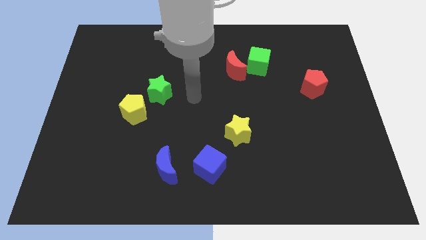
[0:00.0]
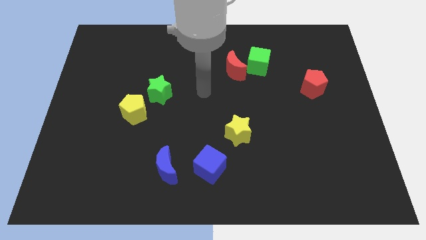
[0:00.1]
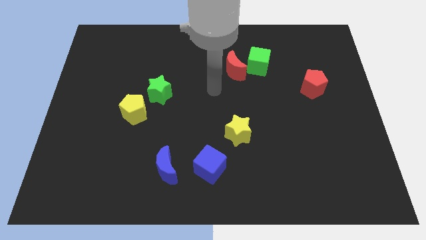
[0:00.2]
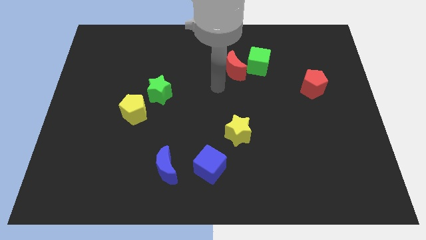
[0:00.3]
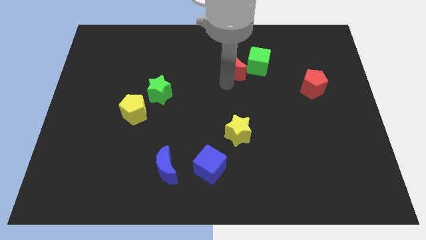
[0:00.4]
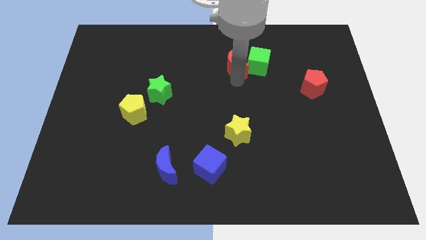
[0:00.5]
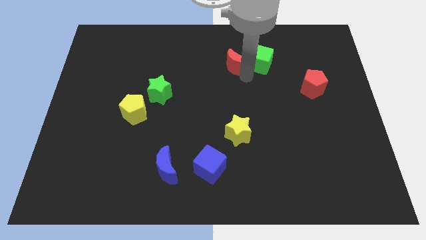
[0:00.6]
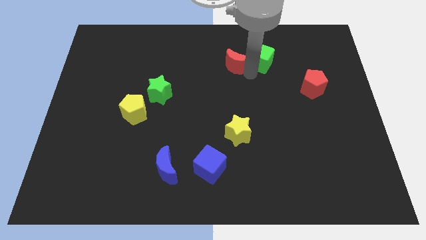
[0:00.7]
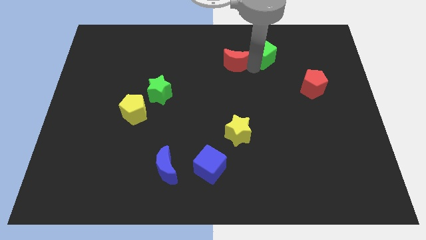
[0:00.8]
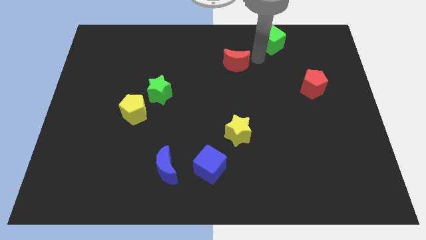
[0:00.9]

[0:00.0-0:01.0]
separate the red moon from the green cube

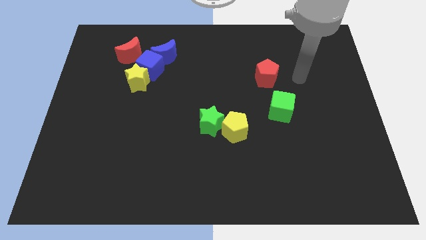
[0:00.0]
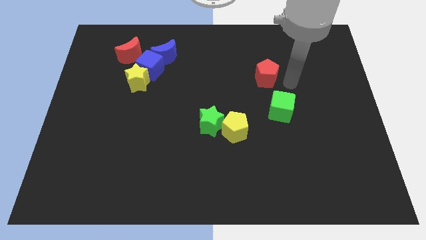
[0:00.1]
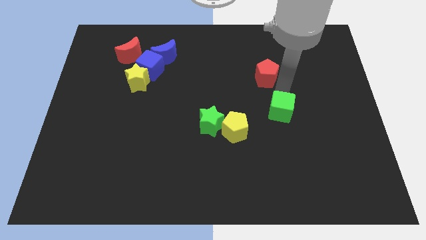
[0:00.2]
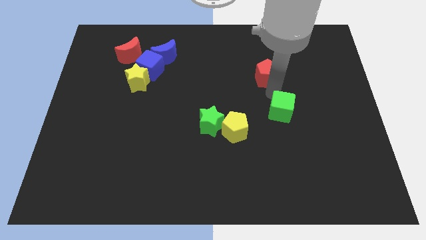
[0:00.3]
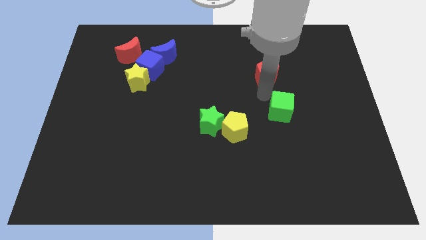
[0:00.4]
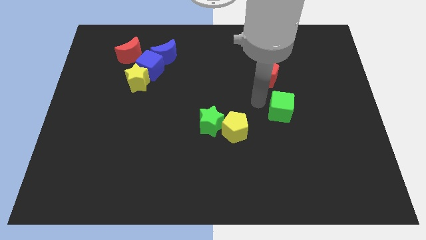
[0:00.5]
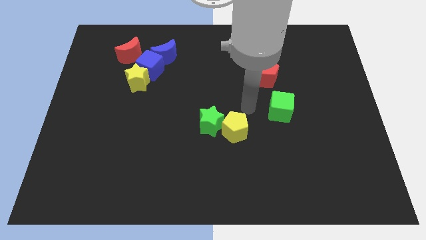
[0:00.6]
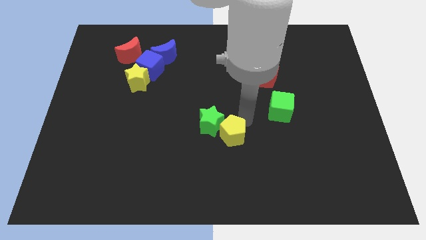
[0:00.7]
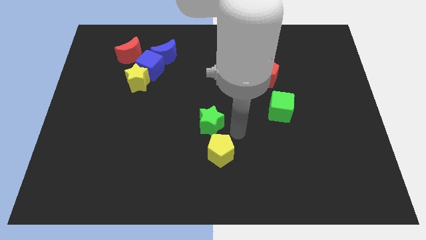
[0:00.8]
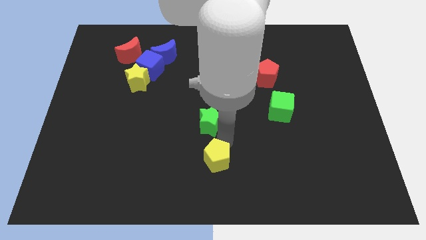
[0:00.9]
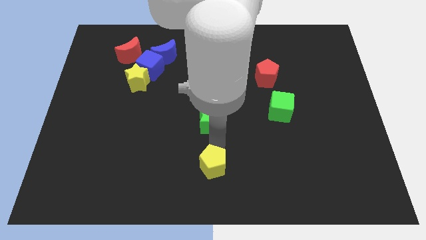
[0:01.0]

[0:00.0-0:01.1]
separate the green star from the yellow pentagon

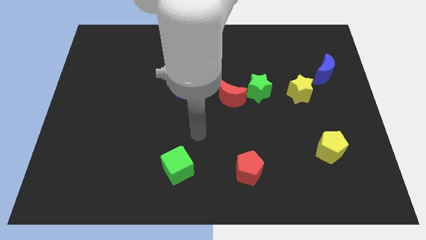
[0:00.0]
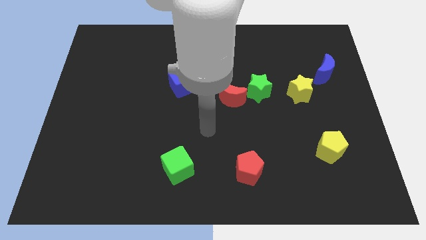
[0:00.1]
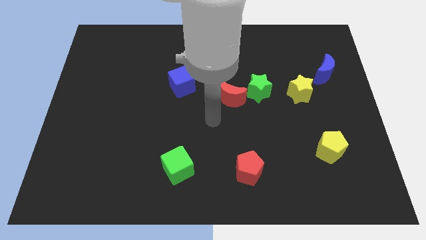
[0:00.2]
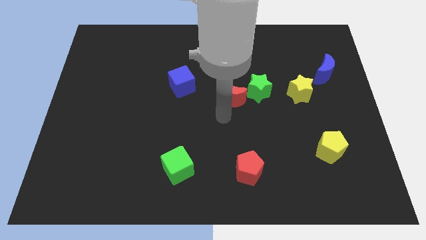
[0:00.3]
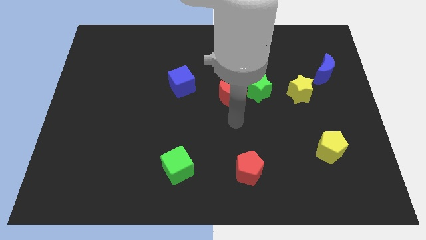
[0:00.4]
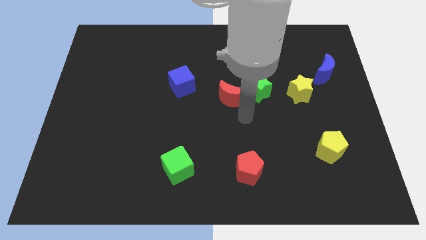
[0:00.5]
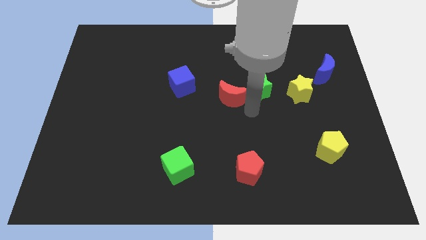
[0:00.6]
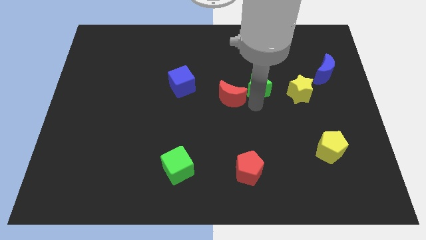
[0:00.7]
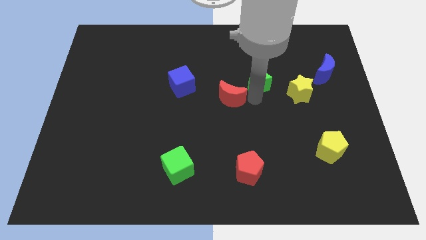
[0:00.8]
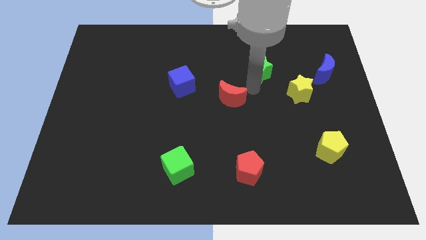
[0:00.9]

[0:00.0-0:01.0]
move the red moon away from the green star

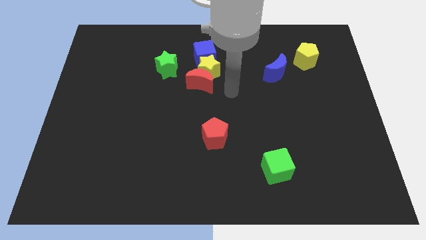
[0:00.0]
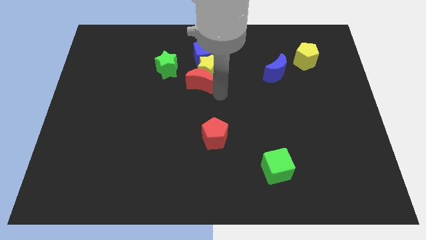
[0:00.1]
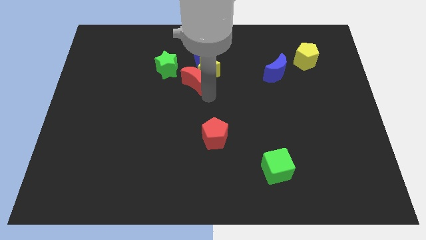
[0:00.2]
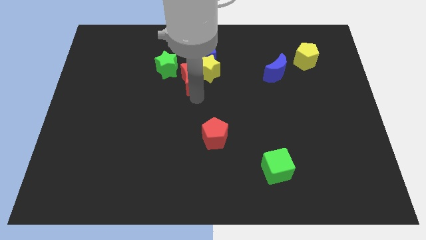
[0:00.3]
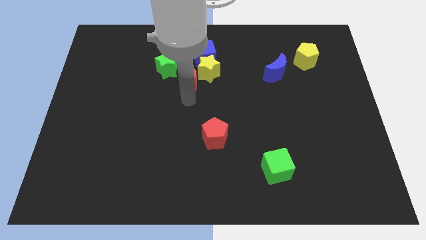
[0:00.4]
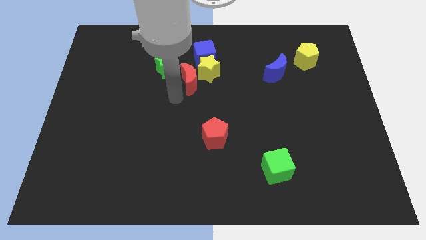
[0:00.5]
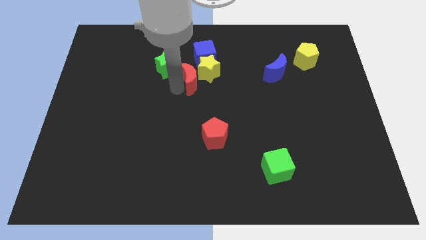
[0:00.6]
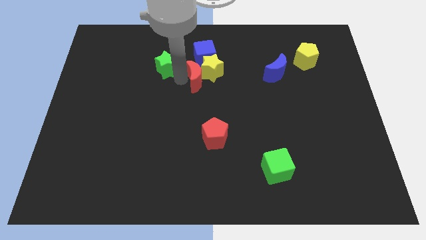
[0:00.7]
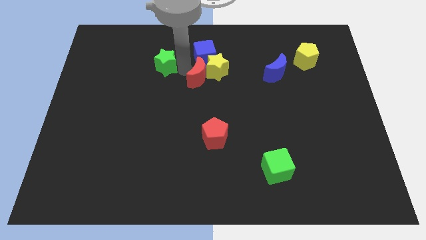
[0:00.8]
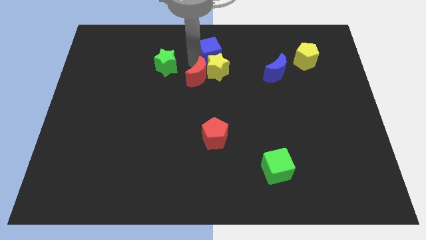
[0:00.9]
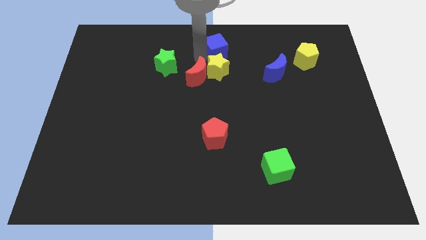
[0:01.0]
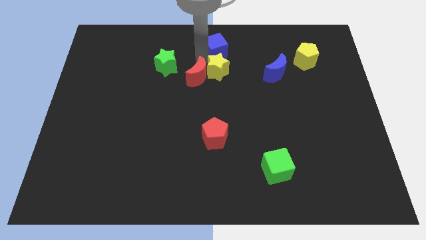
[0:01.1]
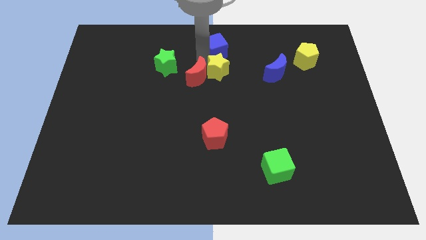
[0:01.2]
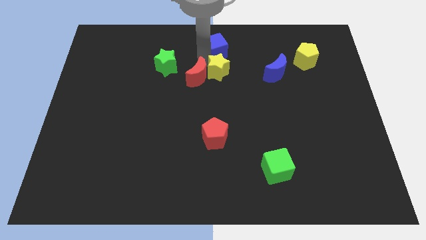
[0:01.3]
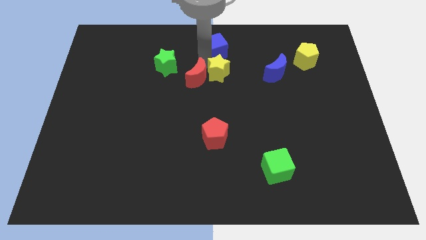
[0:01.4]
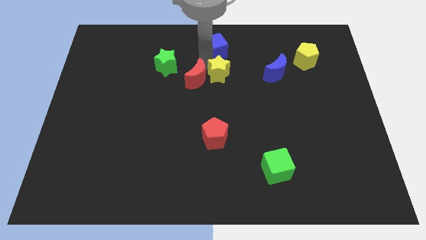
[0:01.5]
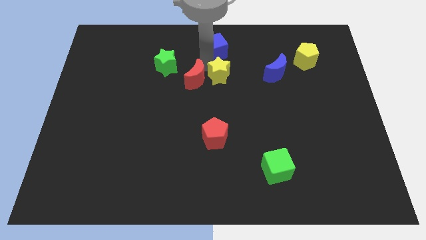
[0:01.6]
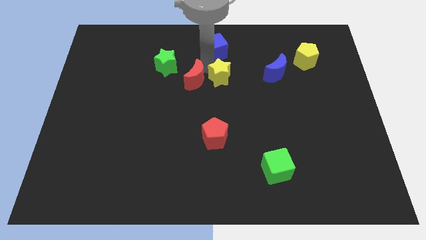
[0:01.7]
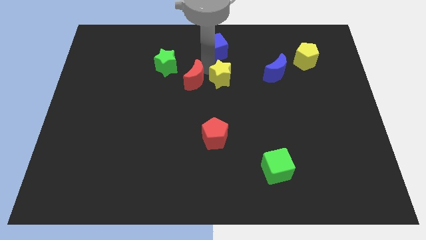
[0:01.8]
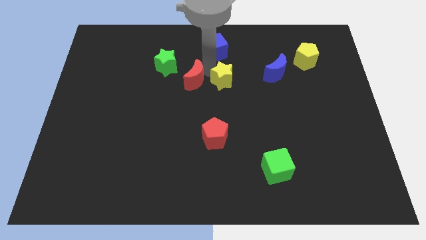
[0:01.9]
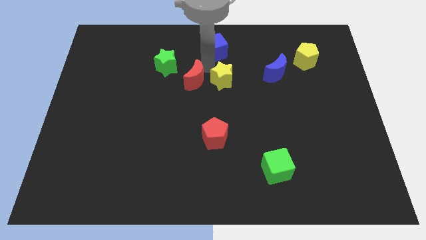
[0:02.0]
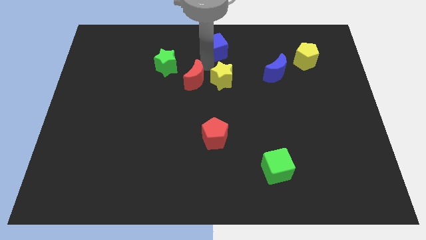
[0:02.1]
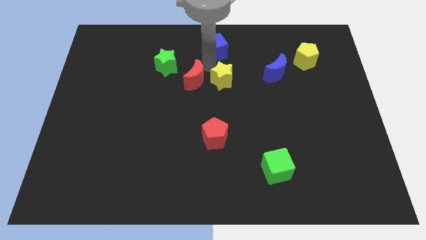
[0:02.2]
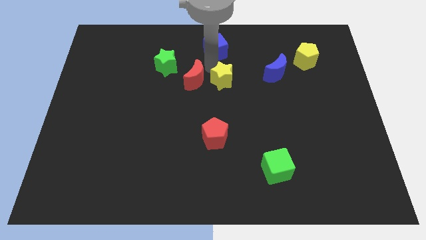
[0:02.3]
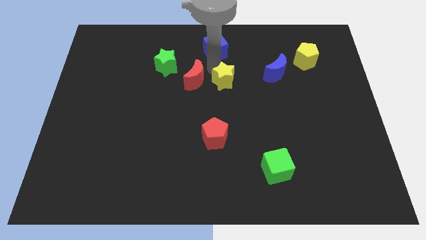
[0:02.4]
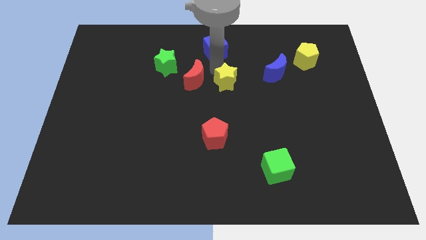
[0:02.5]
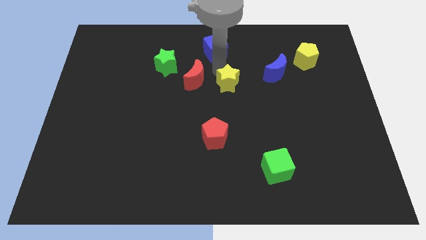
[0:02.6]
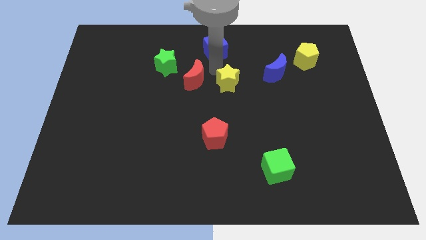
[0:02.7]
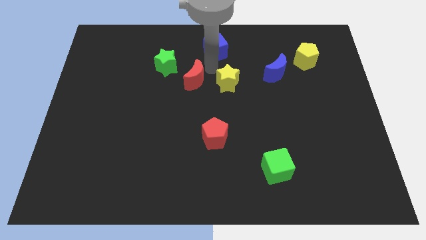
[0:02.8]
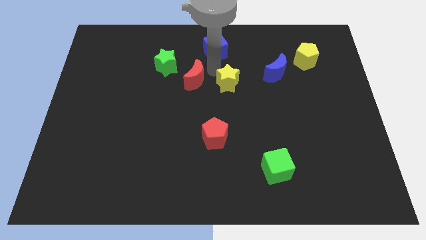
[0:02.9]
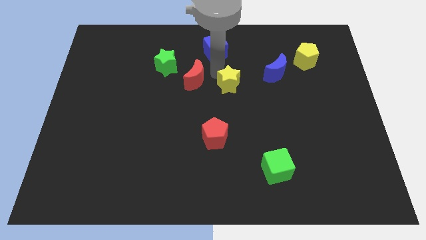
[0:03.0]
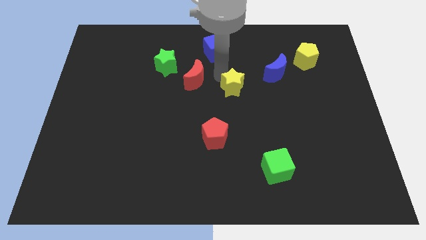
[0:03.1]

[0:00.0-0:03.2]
move the yellow star away from the red moon and blue cube

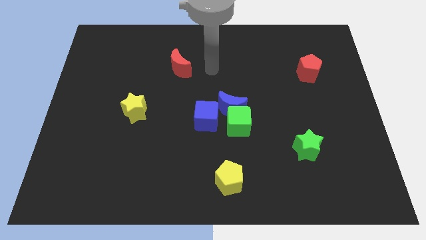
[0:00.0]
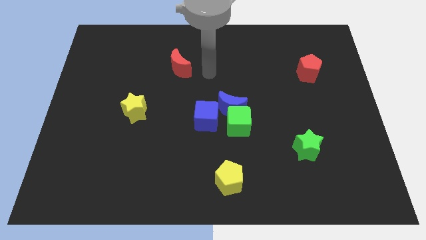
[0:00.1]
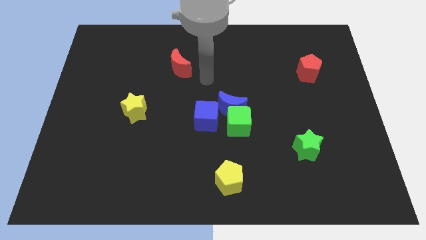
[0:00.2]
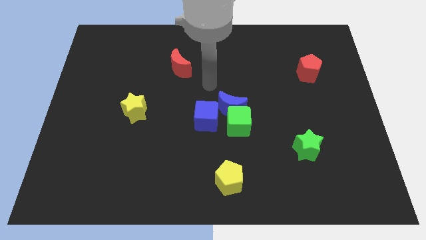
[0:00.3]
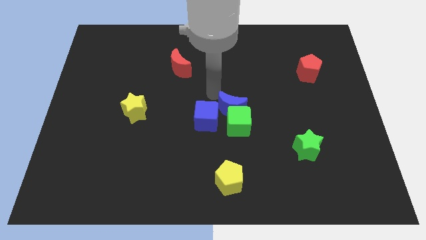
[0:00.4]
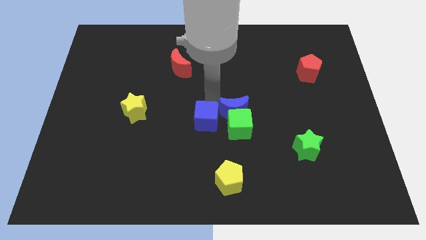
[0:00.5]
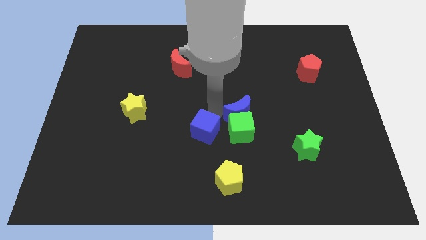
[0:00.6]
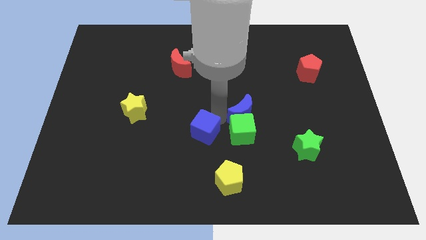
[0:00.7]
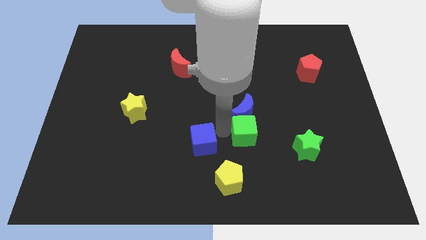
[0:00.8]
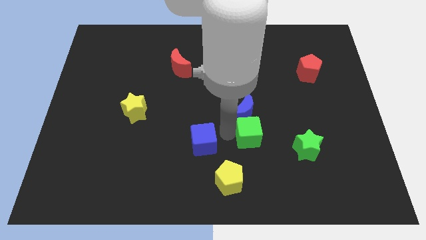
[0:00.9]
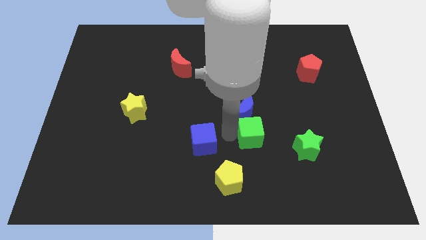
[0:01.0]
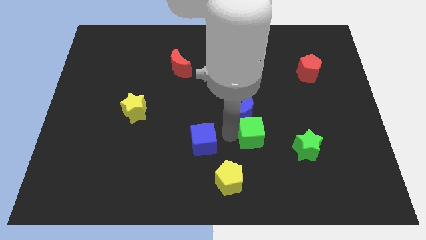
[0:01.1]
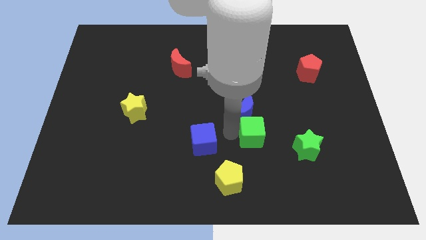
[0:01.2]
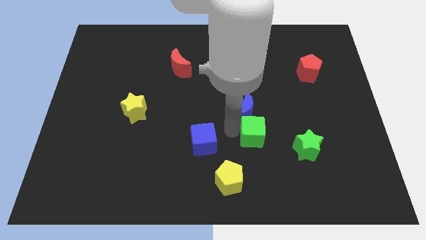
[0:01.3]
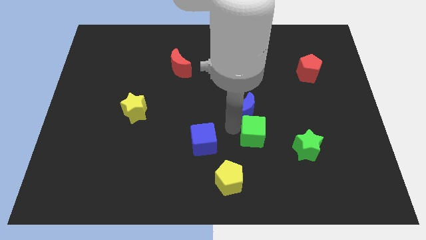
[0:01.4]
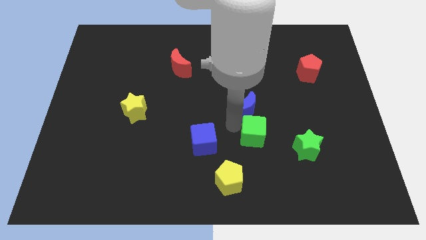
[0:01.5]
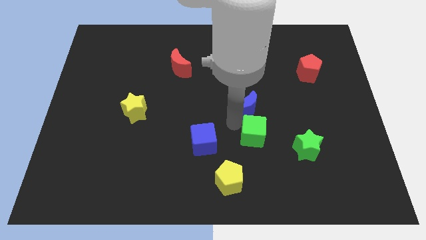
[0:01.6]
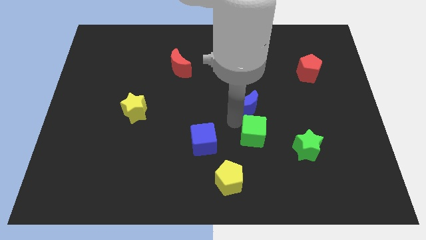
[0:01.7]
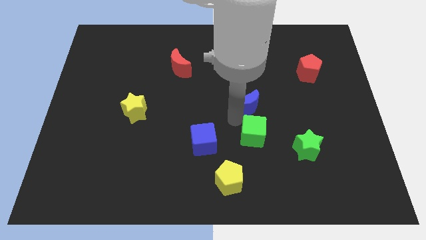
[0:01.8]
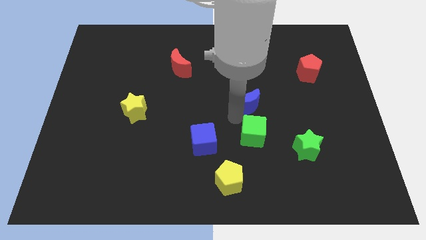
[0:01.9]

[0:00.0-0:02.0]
pull the blue moon apart from the green cube and blue cube

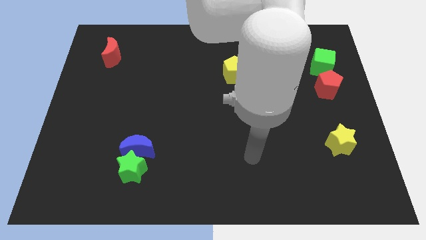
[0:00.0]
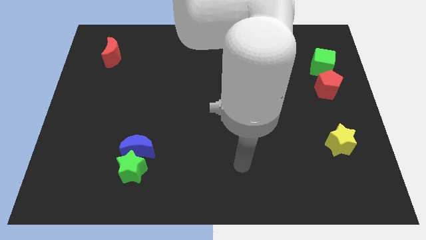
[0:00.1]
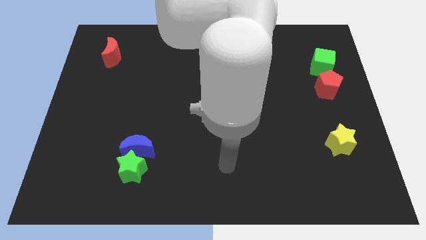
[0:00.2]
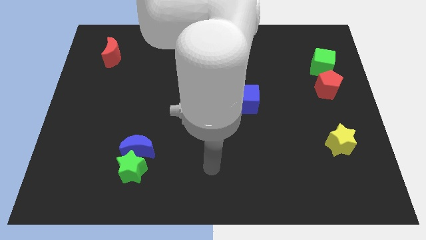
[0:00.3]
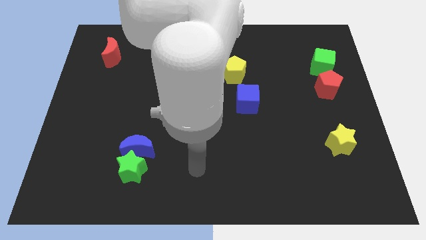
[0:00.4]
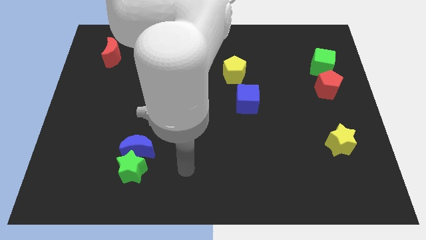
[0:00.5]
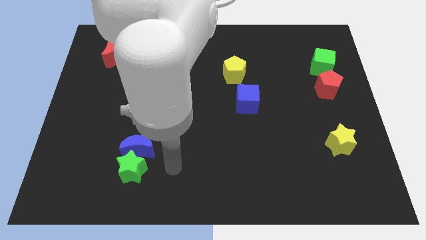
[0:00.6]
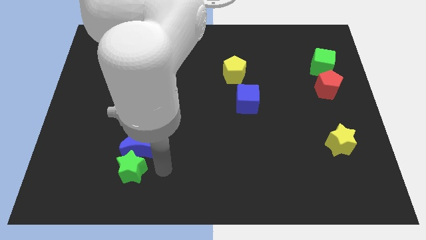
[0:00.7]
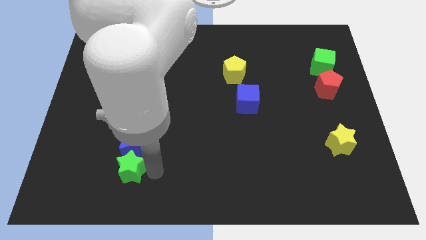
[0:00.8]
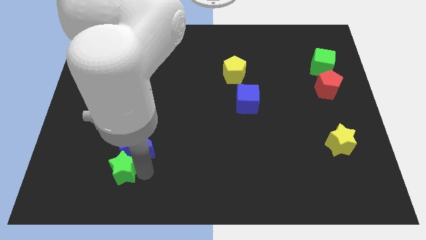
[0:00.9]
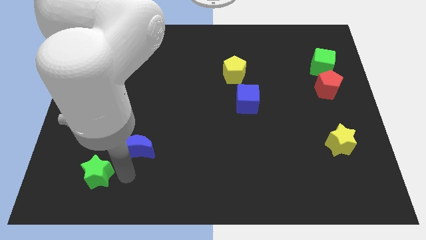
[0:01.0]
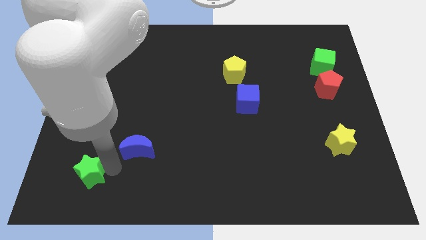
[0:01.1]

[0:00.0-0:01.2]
move the blue moon away from the green star
